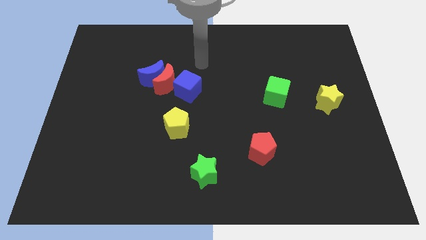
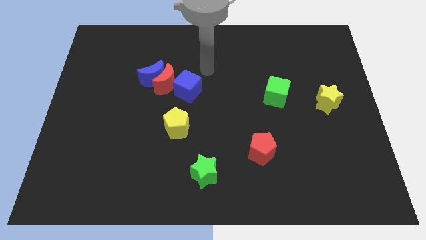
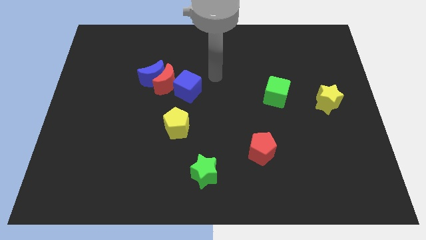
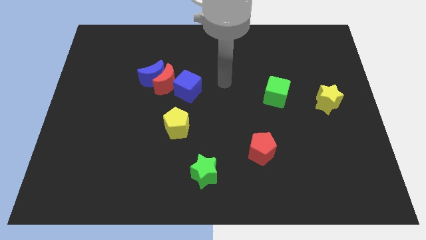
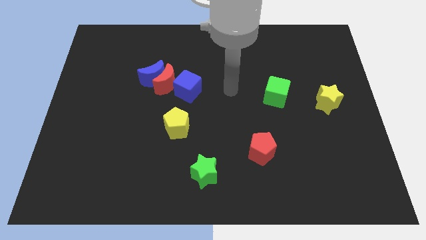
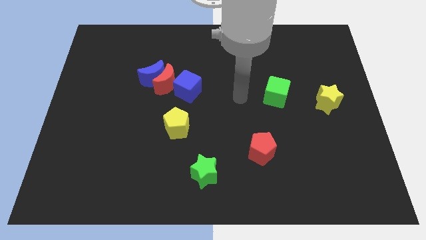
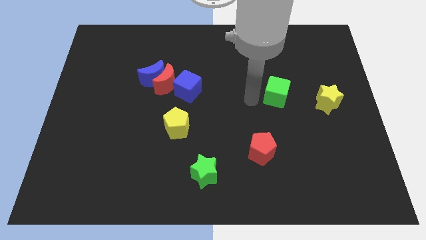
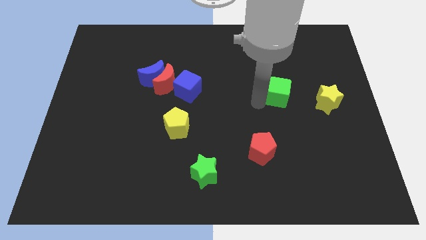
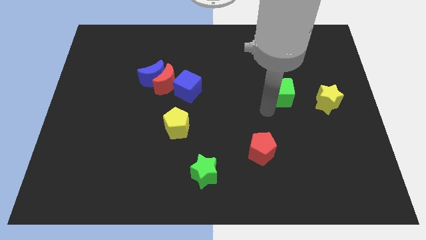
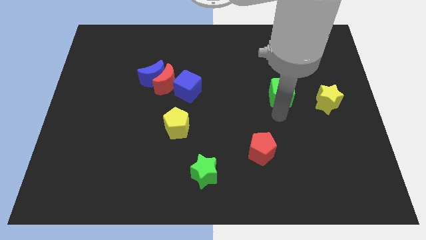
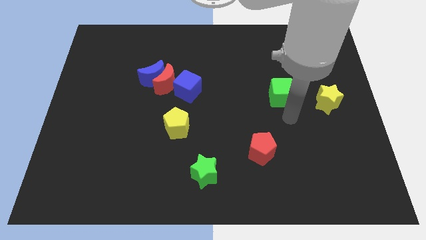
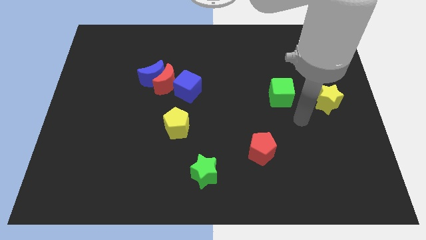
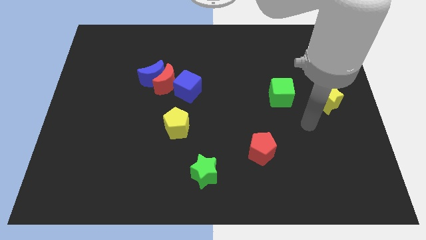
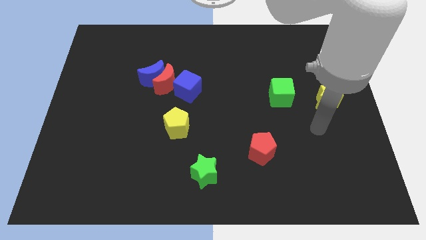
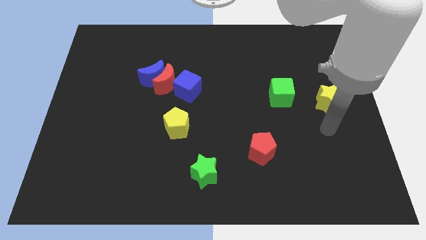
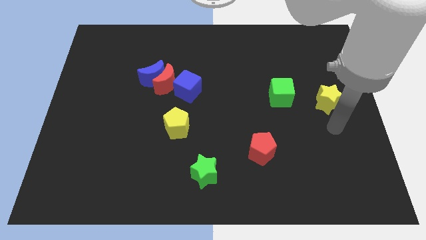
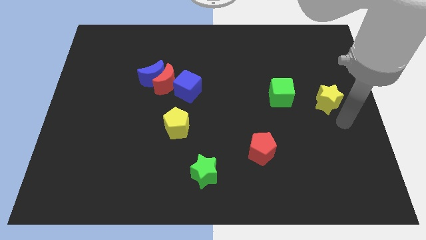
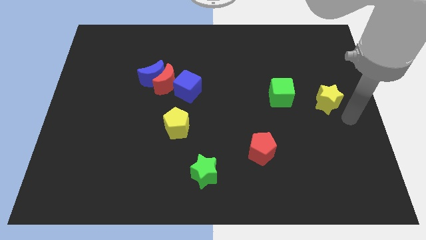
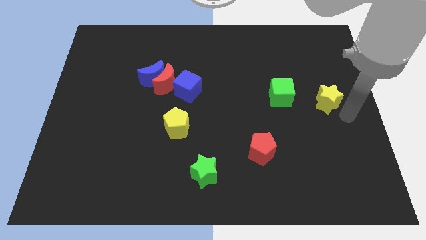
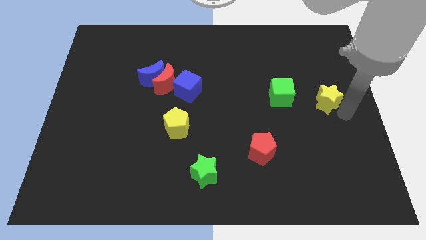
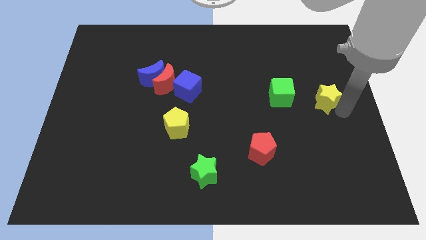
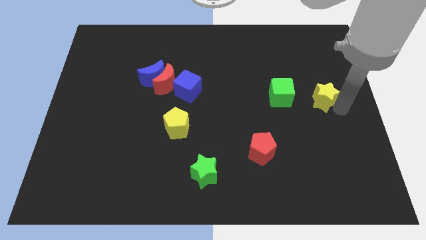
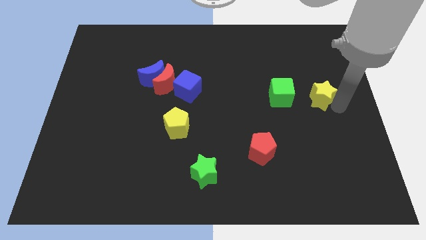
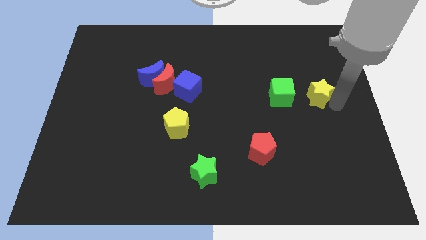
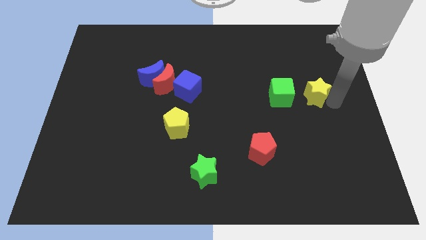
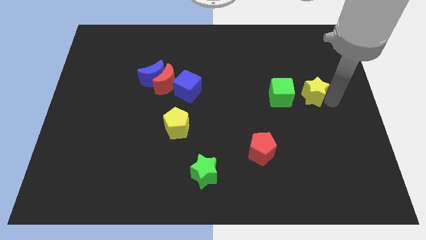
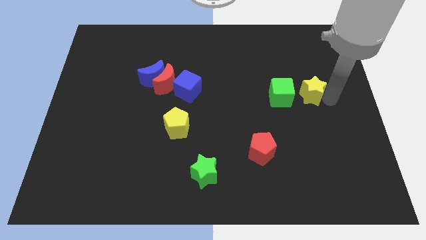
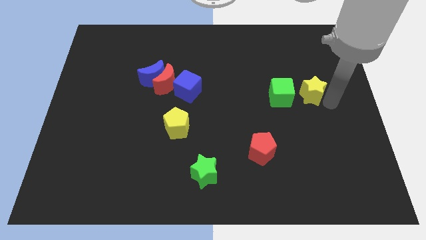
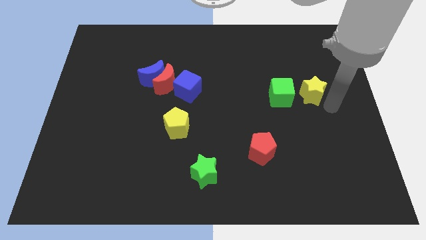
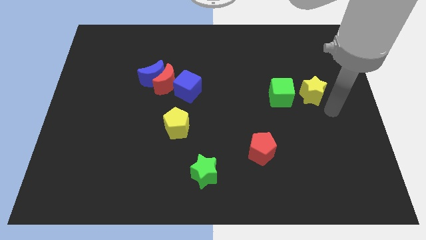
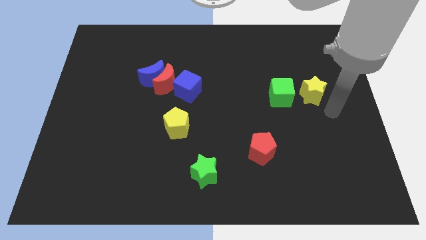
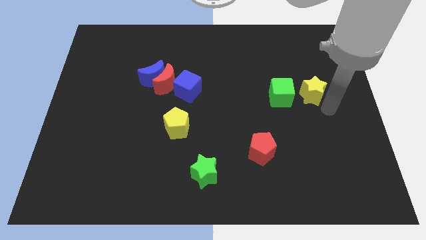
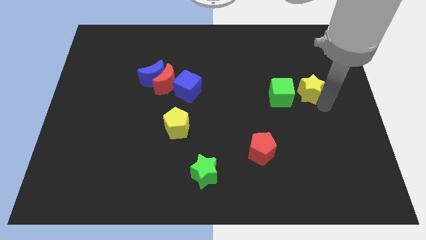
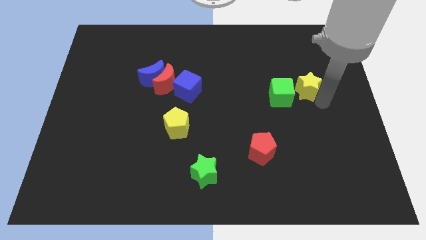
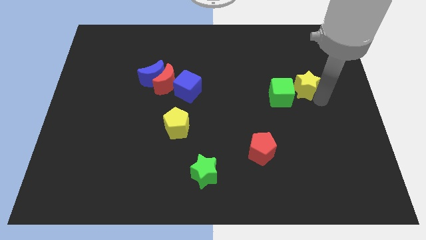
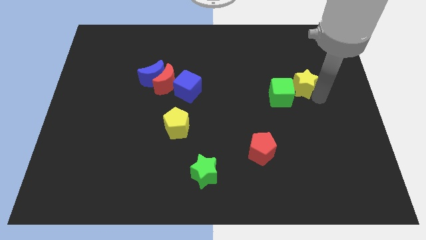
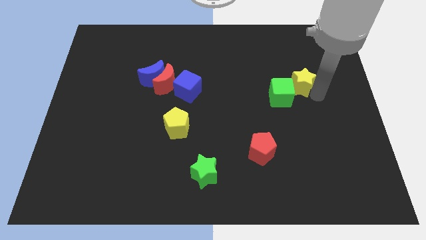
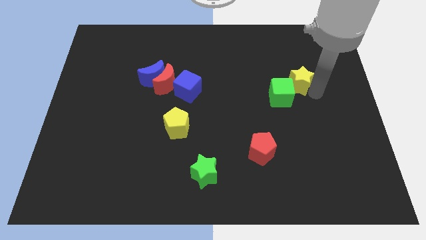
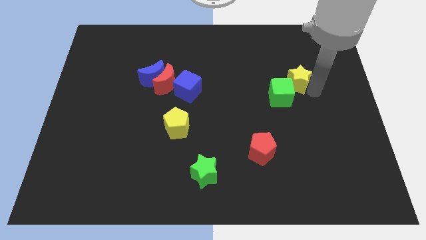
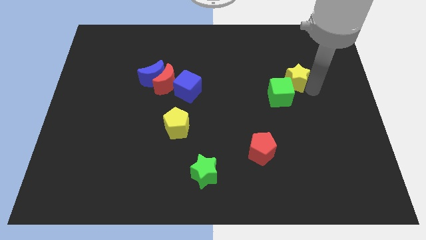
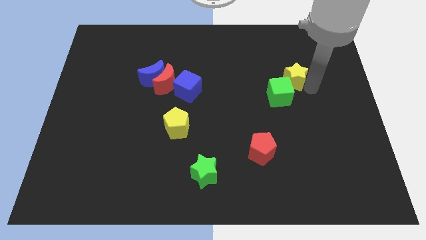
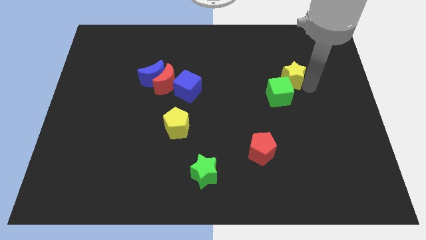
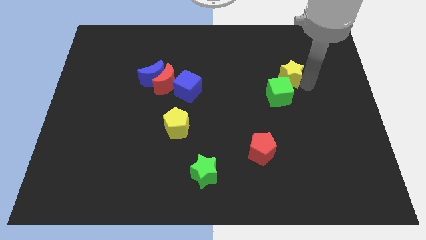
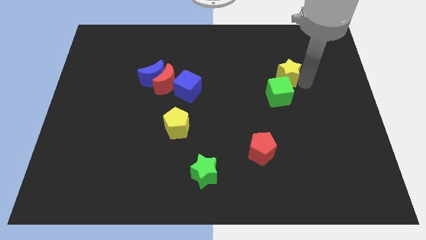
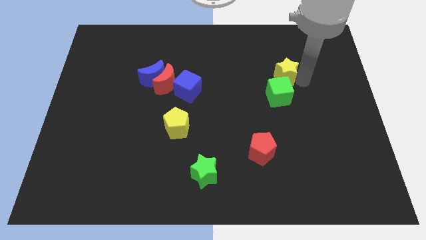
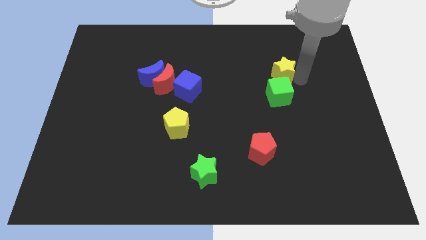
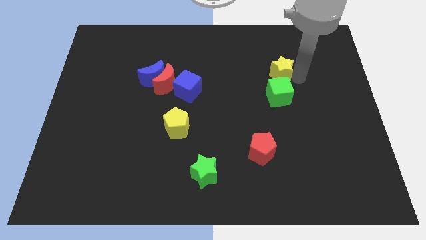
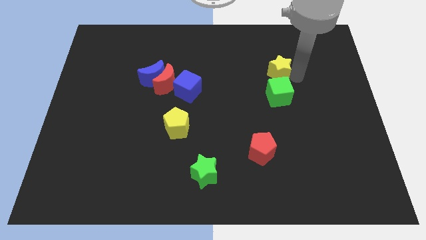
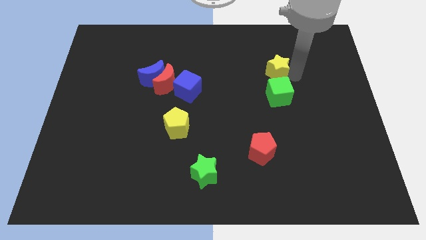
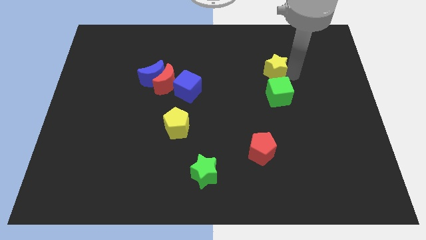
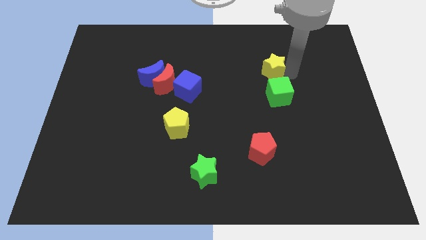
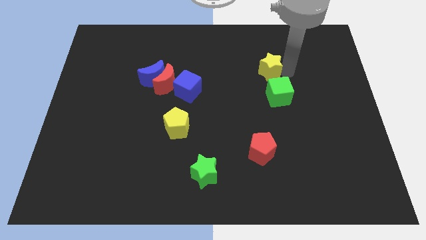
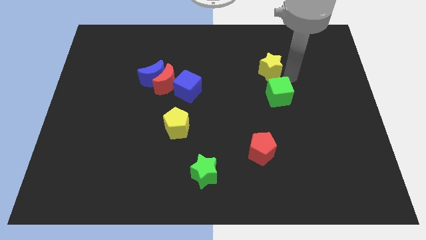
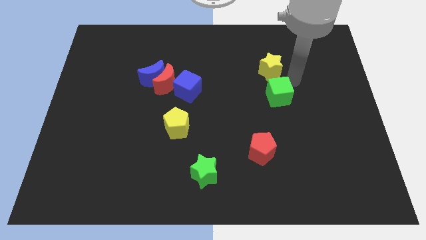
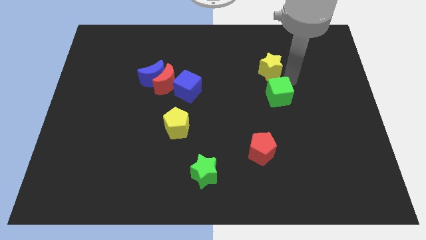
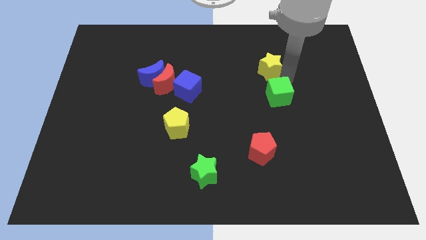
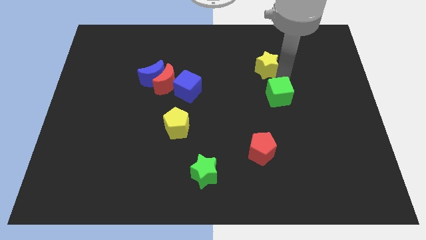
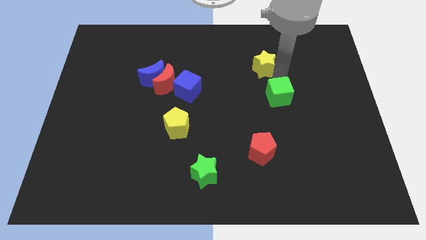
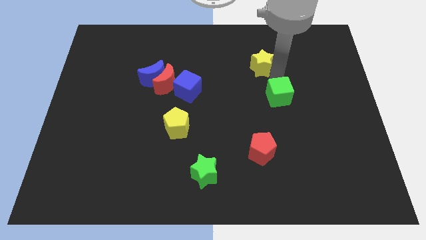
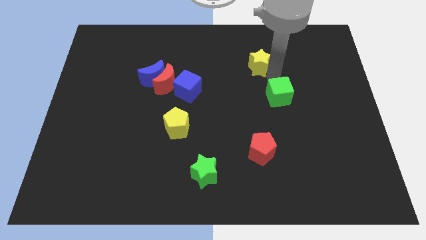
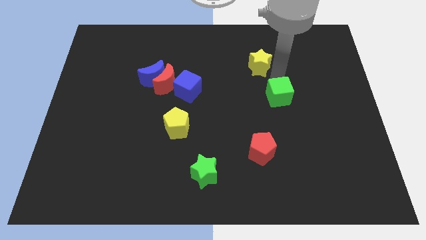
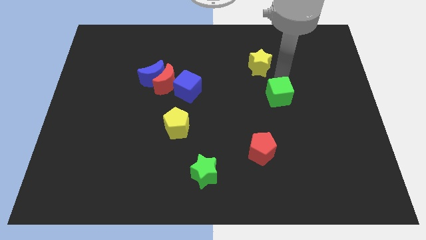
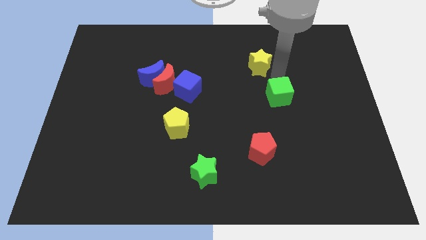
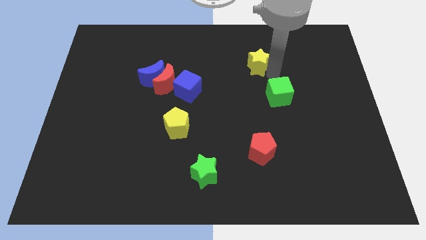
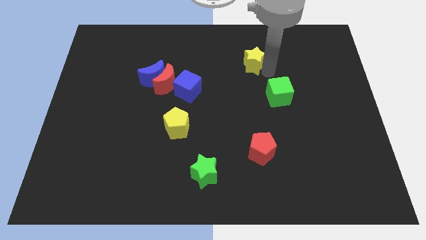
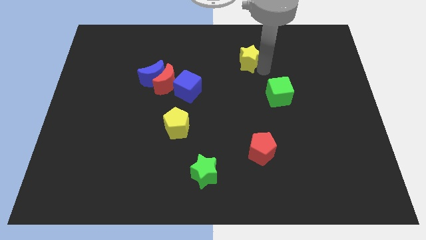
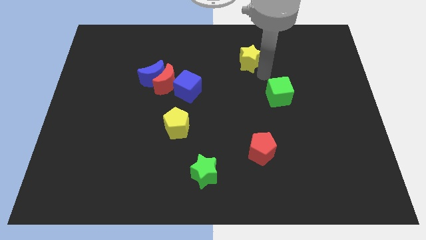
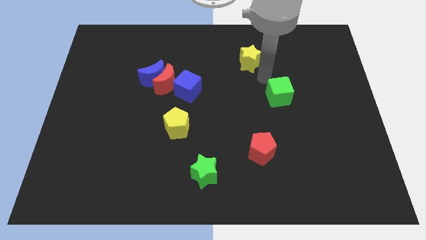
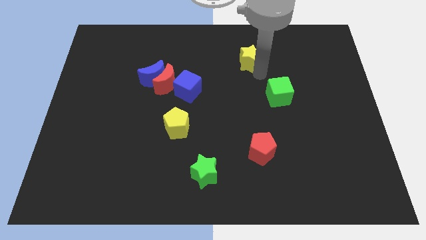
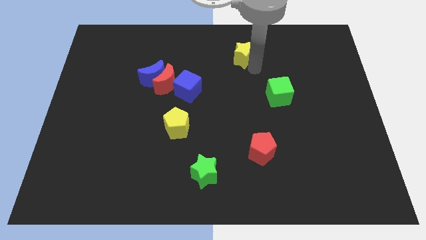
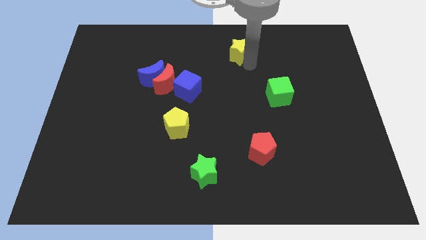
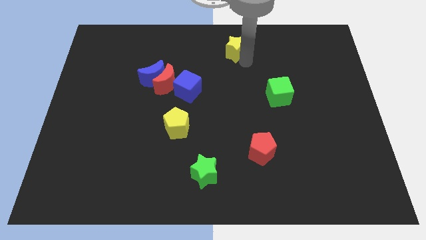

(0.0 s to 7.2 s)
slide the yellow star to the top side

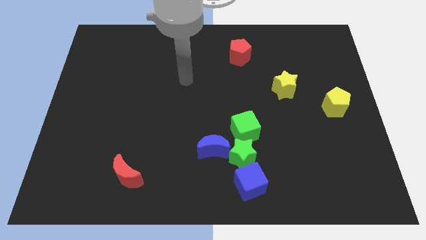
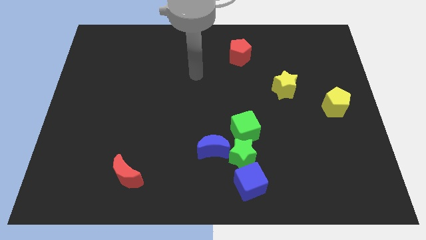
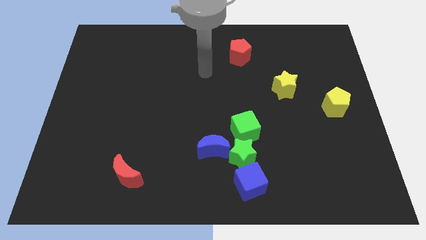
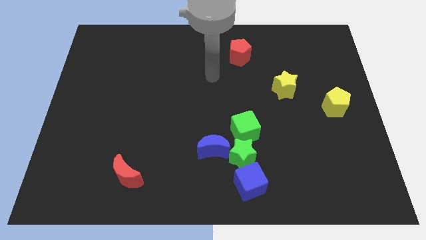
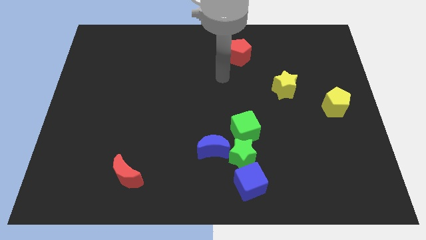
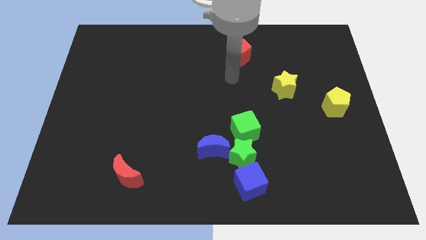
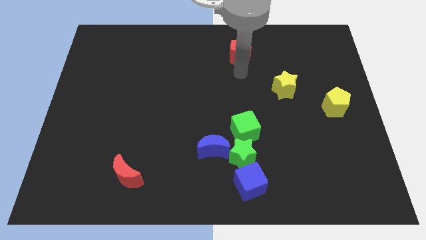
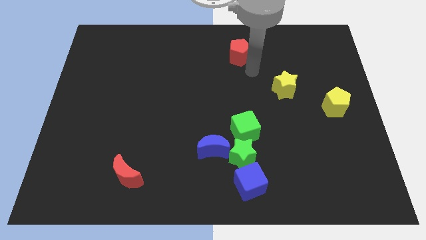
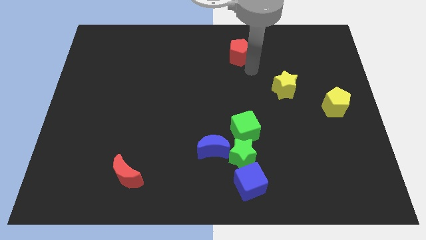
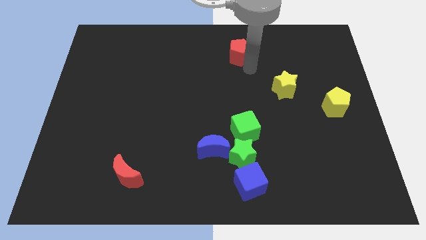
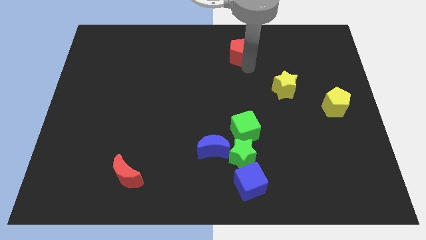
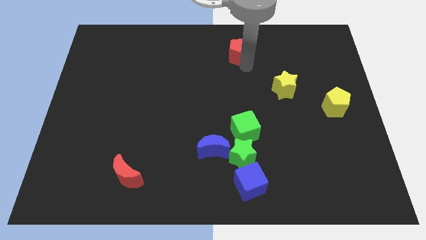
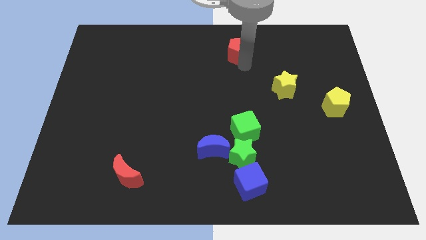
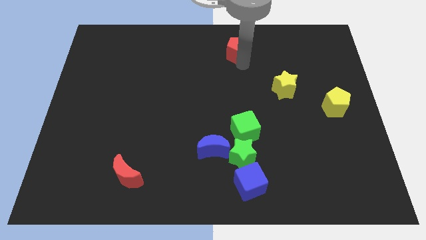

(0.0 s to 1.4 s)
push the red pentagon to the top
